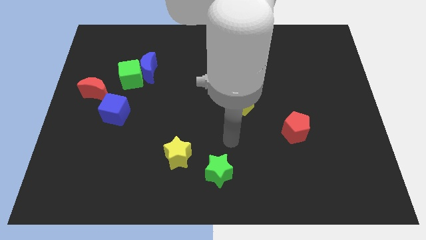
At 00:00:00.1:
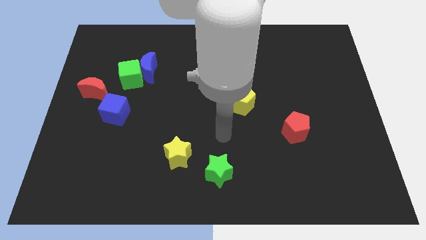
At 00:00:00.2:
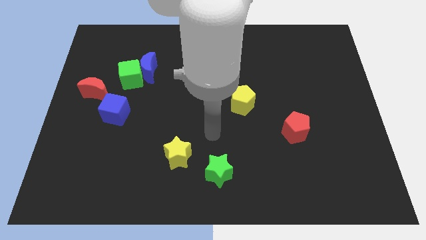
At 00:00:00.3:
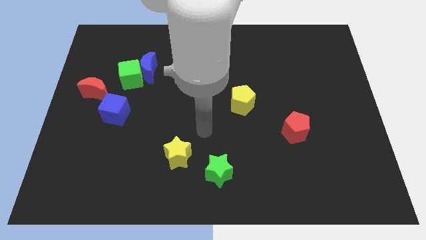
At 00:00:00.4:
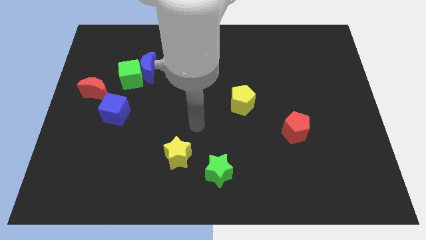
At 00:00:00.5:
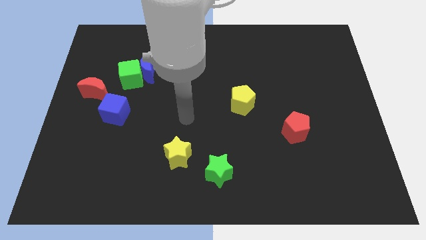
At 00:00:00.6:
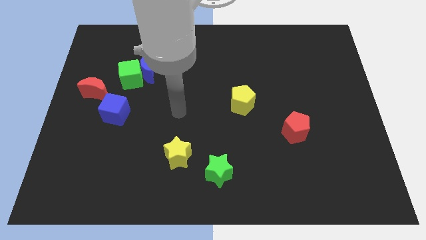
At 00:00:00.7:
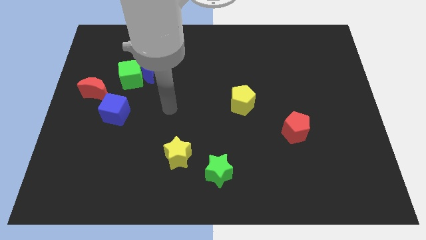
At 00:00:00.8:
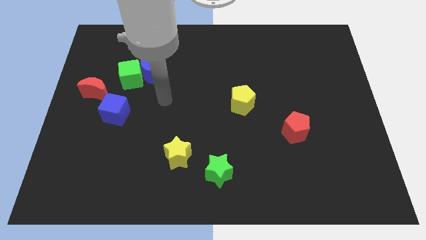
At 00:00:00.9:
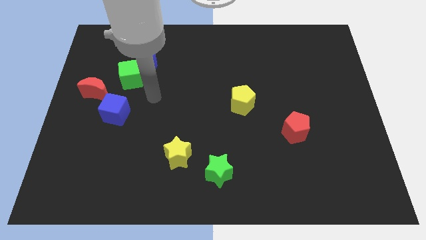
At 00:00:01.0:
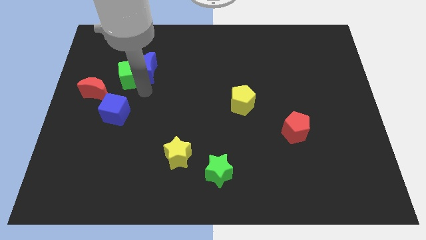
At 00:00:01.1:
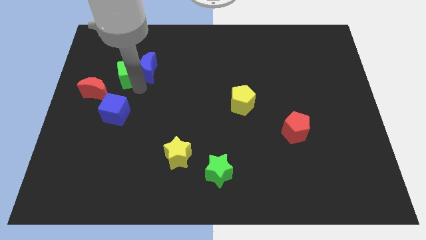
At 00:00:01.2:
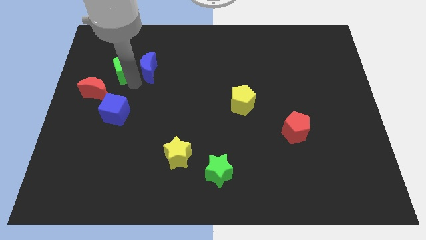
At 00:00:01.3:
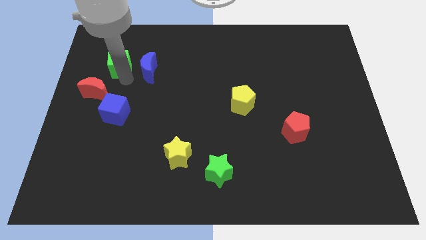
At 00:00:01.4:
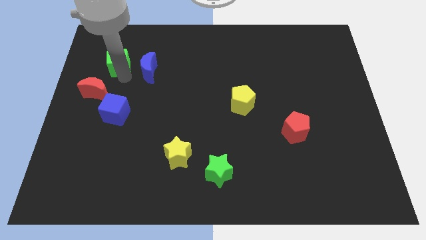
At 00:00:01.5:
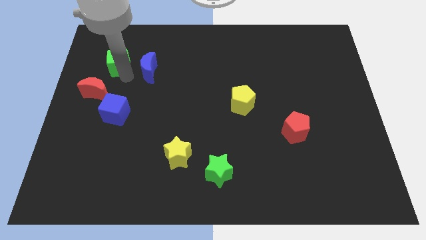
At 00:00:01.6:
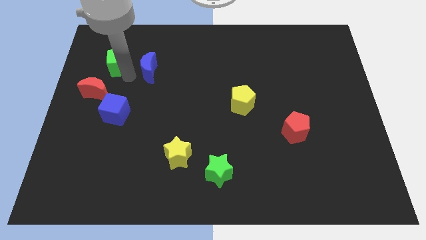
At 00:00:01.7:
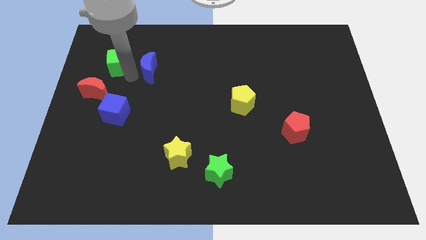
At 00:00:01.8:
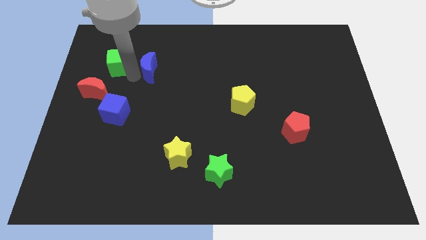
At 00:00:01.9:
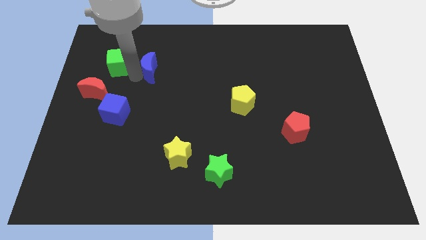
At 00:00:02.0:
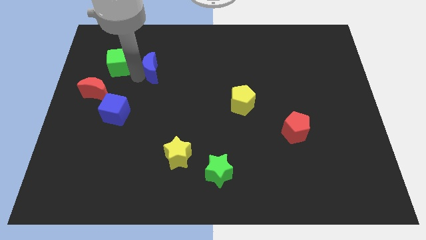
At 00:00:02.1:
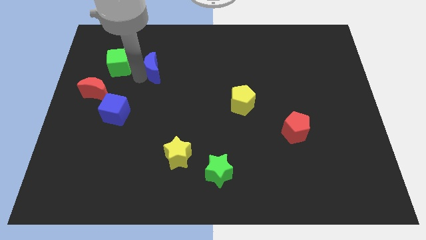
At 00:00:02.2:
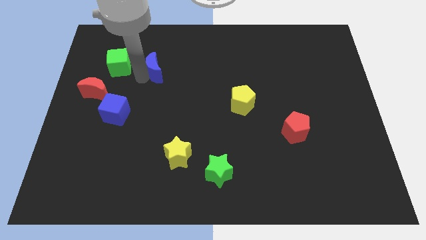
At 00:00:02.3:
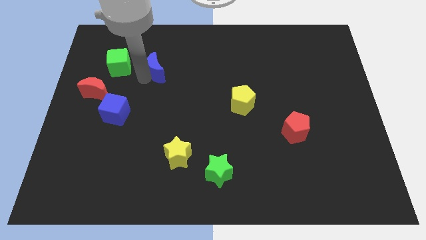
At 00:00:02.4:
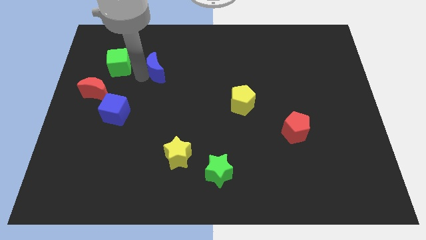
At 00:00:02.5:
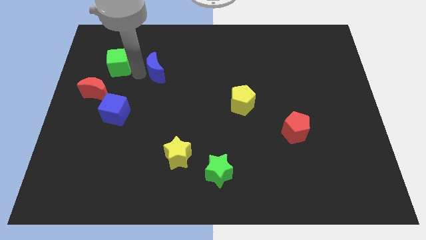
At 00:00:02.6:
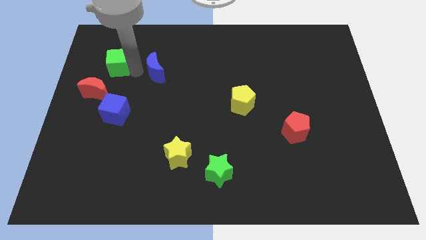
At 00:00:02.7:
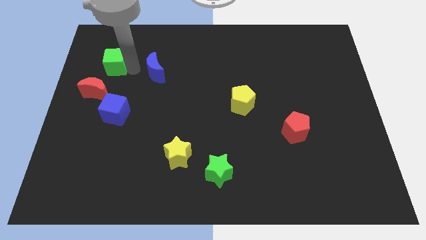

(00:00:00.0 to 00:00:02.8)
separate the blue moon from the green cube

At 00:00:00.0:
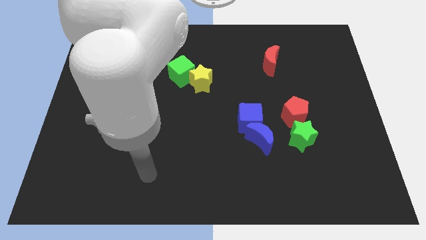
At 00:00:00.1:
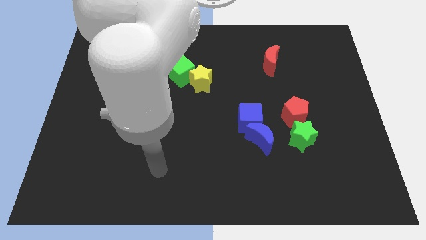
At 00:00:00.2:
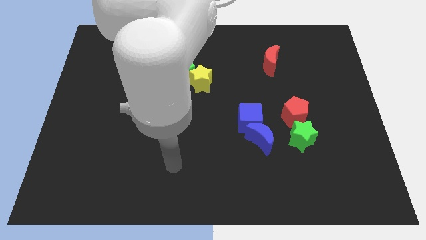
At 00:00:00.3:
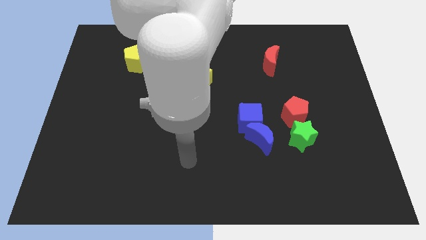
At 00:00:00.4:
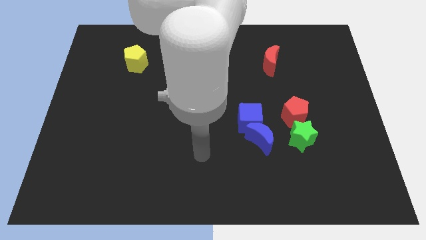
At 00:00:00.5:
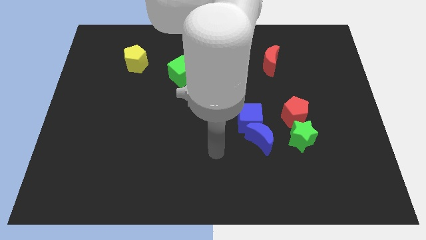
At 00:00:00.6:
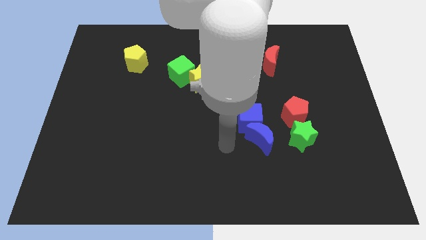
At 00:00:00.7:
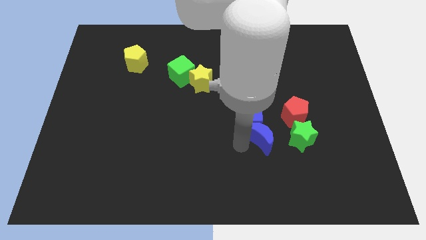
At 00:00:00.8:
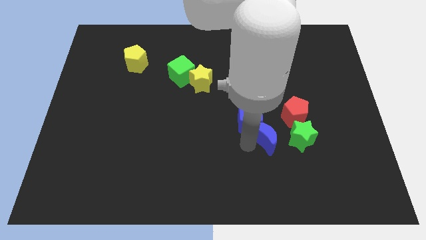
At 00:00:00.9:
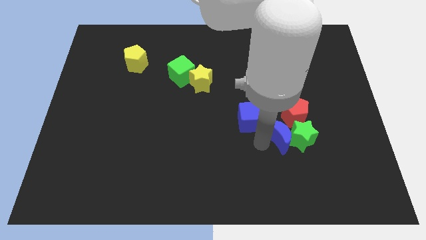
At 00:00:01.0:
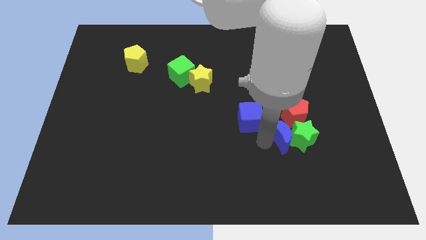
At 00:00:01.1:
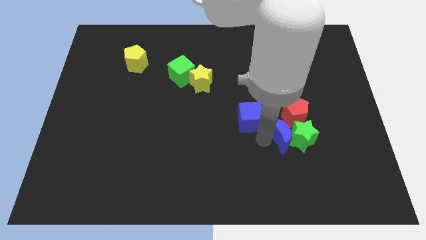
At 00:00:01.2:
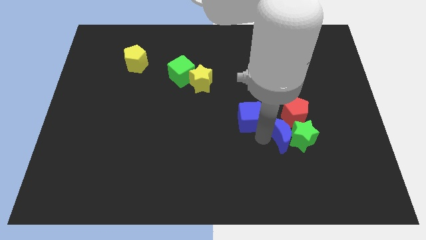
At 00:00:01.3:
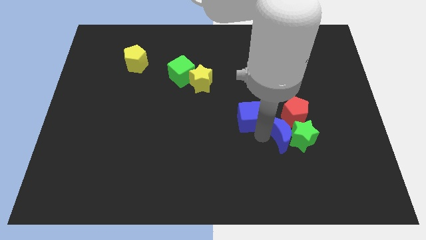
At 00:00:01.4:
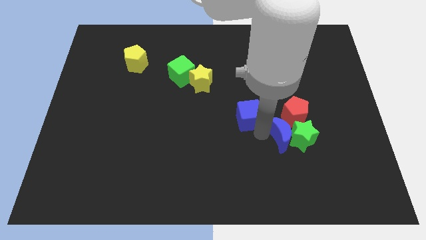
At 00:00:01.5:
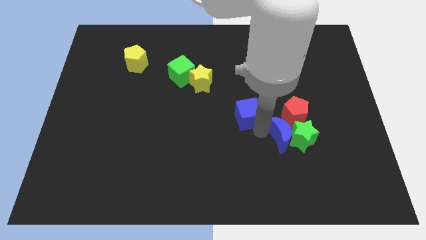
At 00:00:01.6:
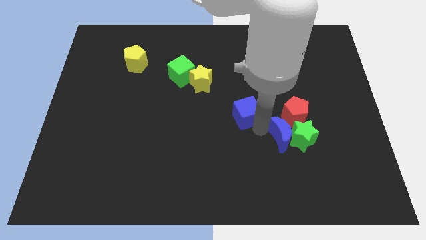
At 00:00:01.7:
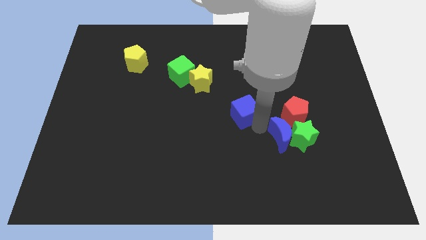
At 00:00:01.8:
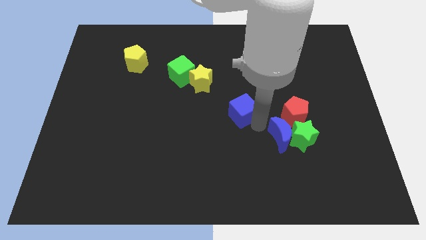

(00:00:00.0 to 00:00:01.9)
pull the blue cube apart from the blue moon

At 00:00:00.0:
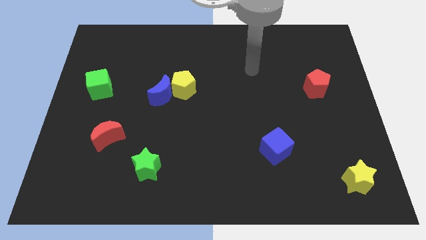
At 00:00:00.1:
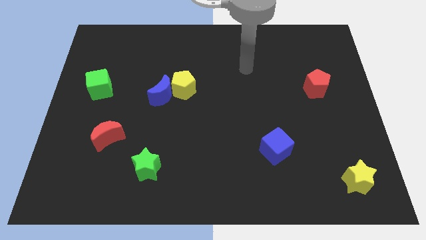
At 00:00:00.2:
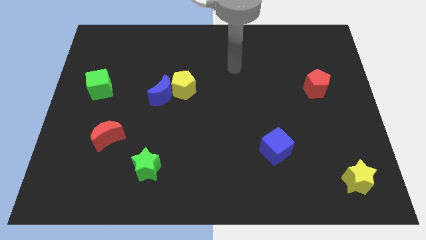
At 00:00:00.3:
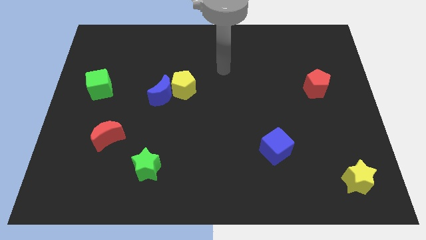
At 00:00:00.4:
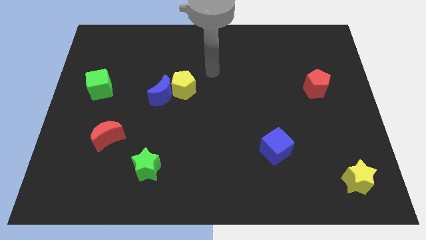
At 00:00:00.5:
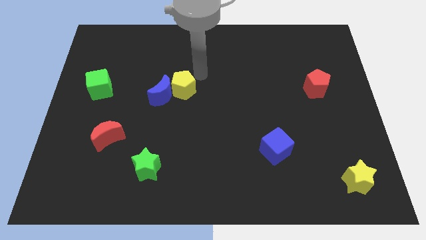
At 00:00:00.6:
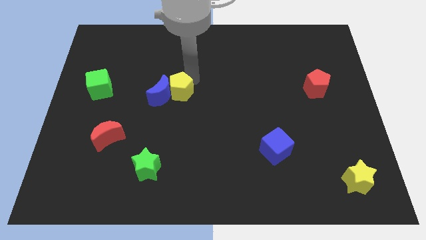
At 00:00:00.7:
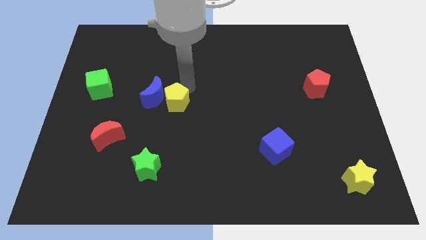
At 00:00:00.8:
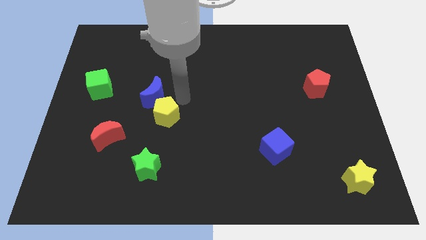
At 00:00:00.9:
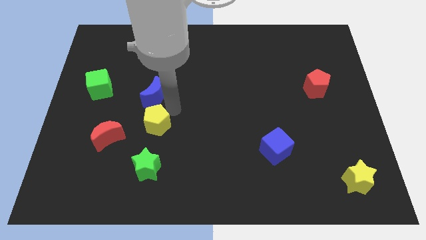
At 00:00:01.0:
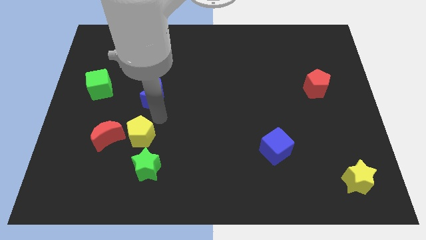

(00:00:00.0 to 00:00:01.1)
move the blue moon away from the yellow pentagon

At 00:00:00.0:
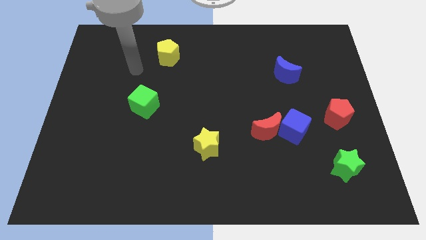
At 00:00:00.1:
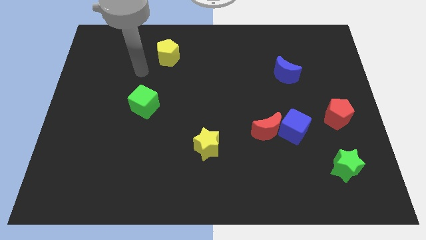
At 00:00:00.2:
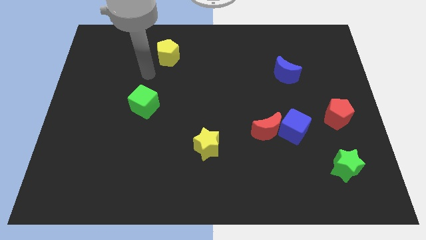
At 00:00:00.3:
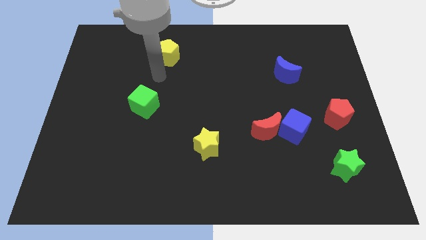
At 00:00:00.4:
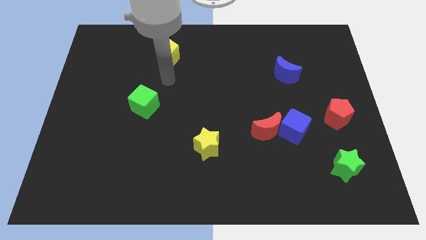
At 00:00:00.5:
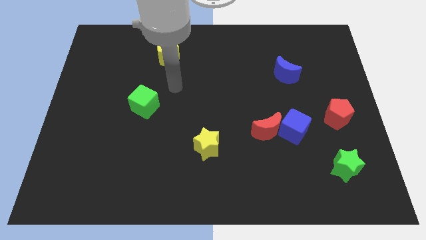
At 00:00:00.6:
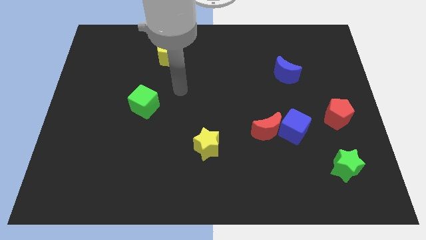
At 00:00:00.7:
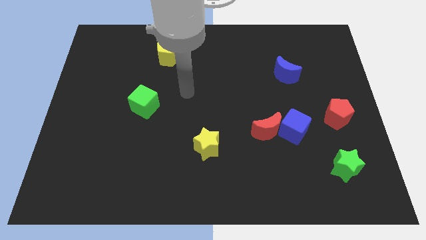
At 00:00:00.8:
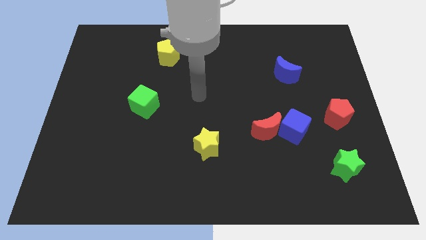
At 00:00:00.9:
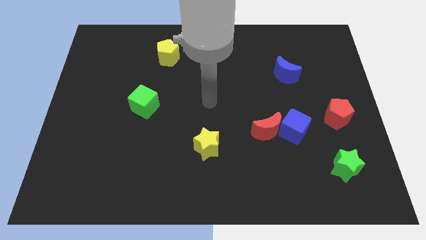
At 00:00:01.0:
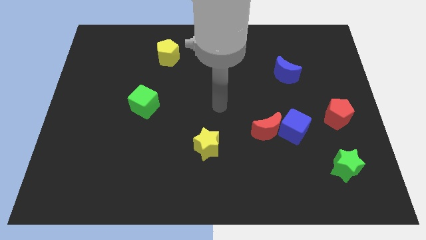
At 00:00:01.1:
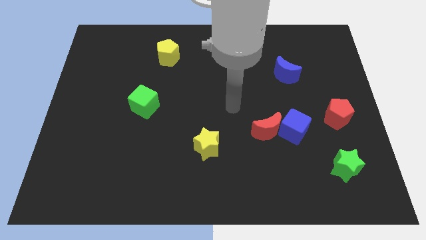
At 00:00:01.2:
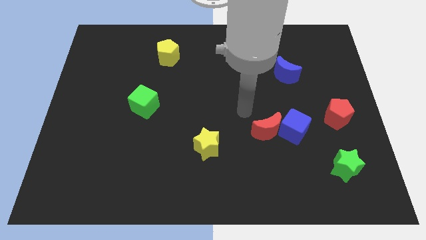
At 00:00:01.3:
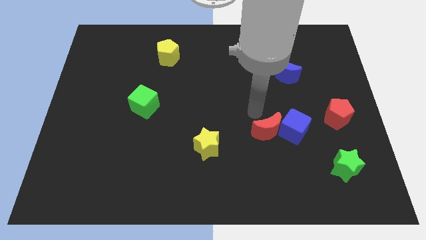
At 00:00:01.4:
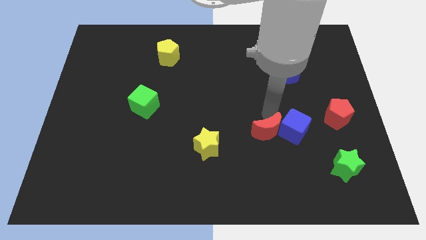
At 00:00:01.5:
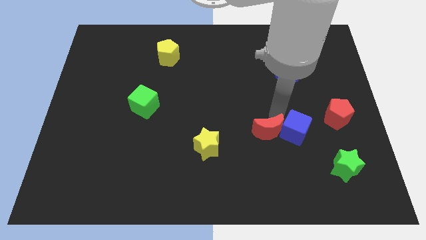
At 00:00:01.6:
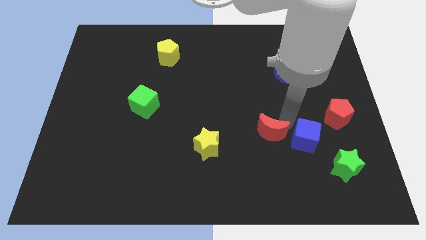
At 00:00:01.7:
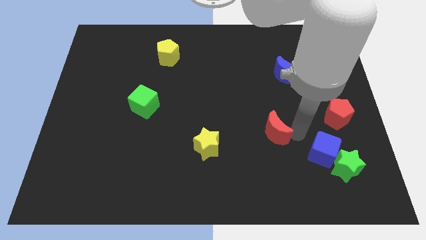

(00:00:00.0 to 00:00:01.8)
separate the red moon from the blue cube

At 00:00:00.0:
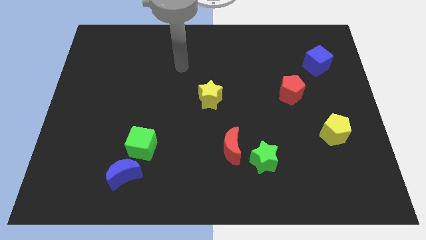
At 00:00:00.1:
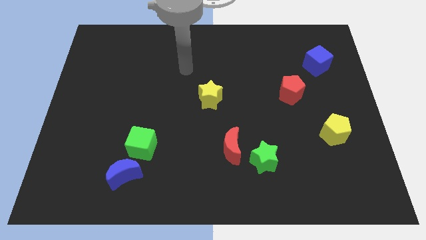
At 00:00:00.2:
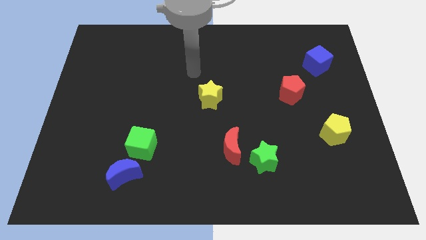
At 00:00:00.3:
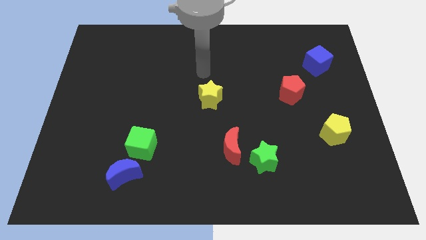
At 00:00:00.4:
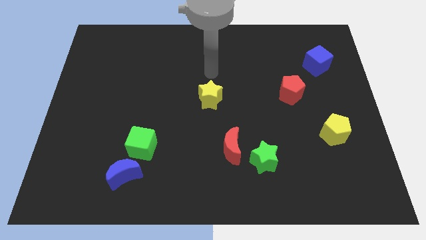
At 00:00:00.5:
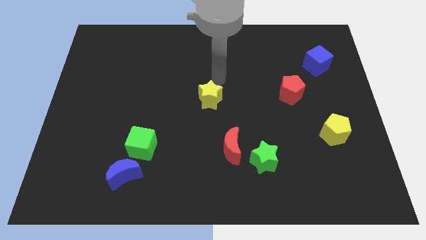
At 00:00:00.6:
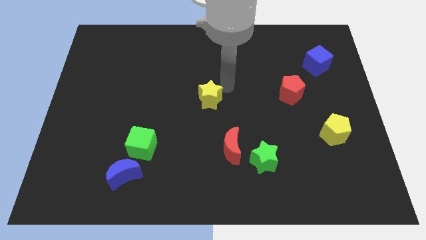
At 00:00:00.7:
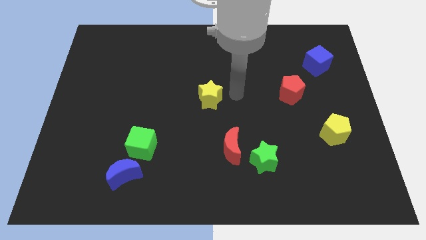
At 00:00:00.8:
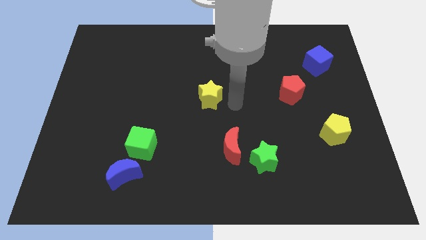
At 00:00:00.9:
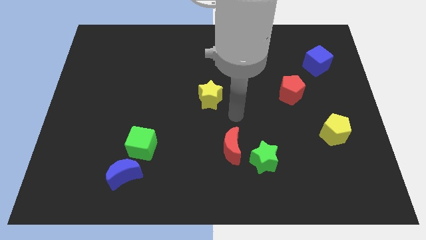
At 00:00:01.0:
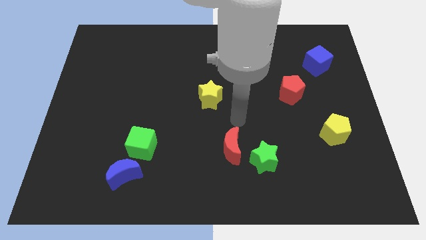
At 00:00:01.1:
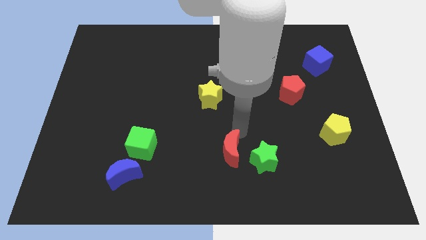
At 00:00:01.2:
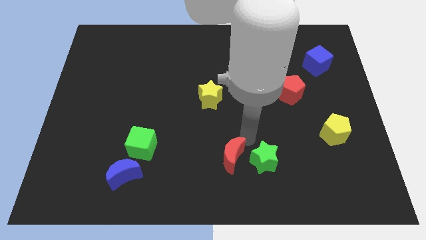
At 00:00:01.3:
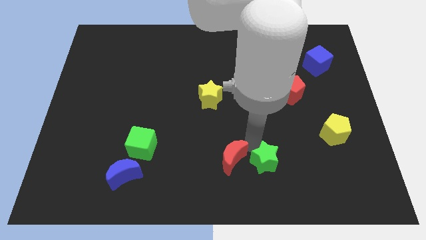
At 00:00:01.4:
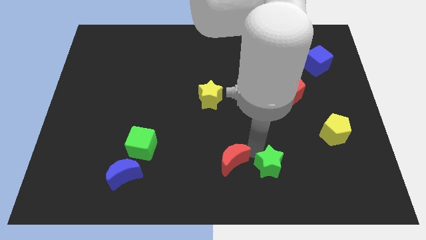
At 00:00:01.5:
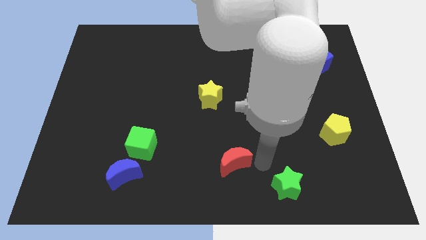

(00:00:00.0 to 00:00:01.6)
separate the red moon from the green star

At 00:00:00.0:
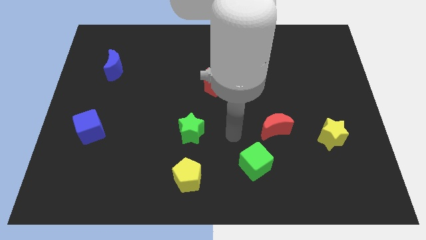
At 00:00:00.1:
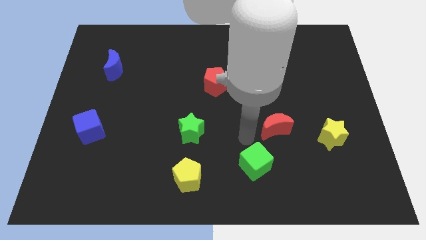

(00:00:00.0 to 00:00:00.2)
move the red moon away from the green cube
